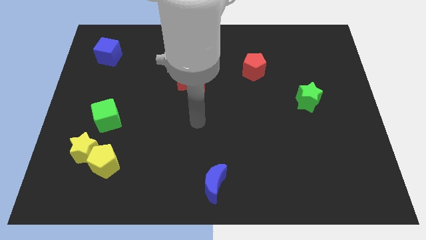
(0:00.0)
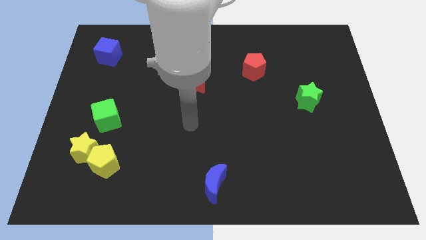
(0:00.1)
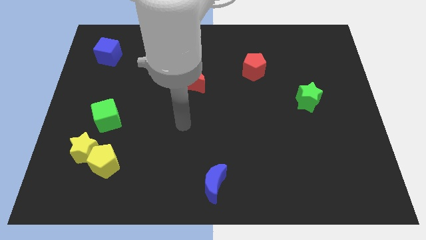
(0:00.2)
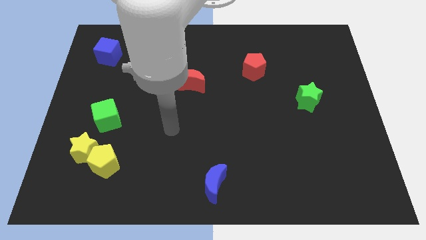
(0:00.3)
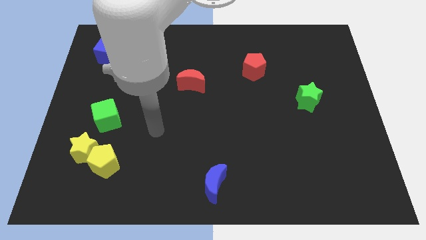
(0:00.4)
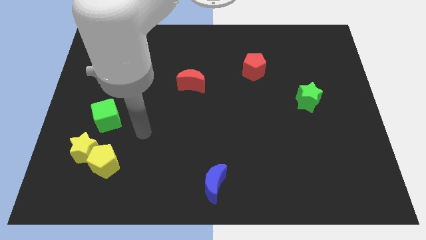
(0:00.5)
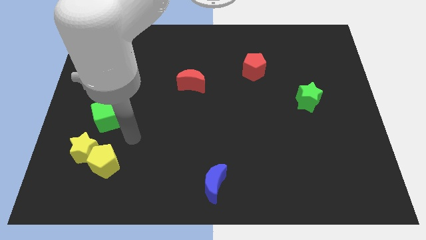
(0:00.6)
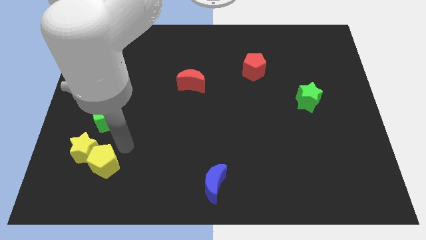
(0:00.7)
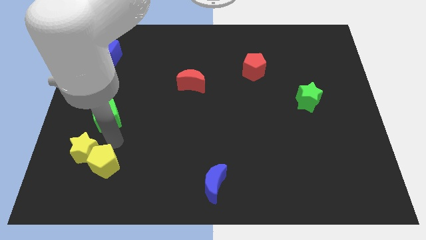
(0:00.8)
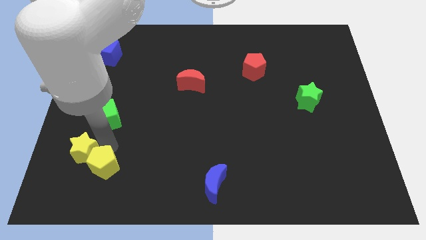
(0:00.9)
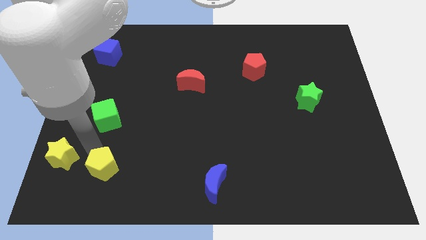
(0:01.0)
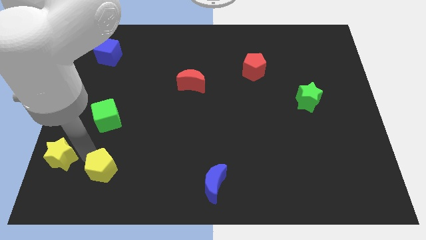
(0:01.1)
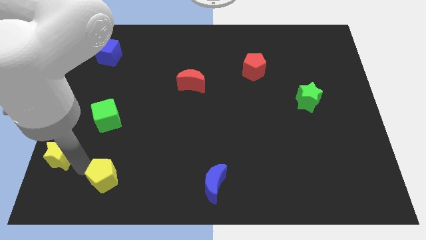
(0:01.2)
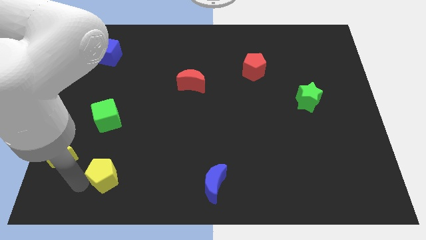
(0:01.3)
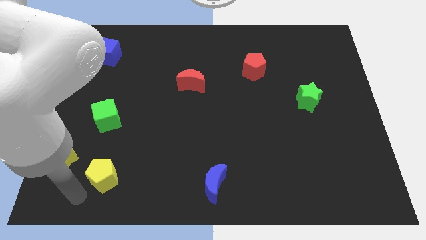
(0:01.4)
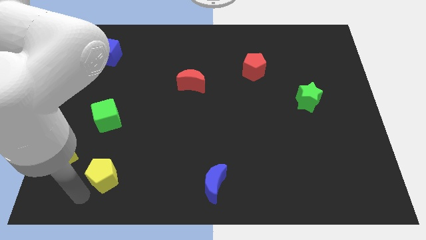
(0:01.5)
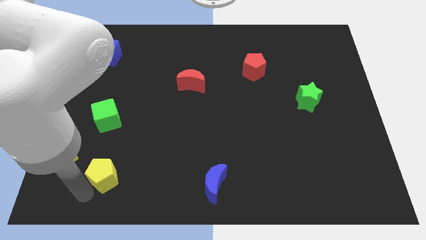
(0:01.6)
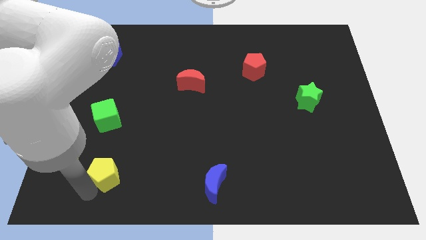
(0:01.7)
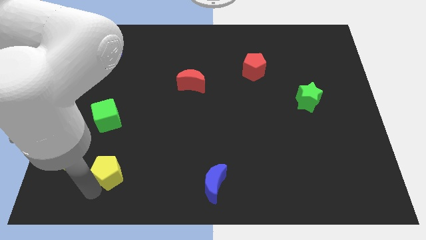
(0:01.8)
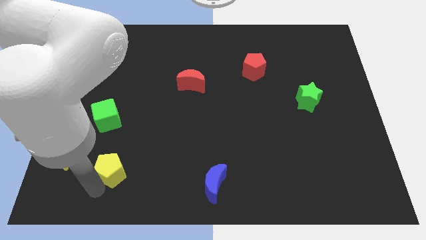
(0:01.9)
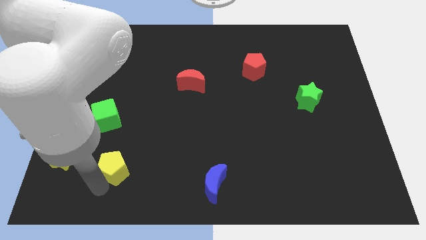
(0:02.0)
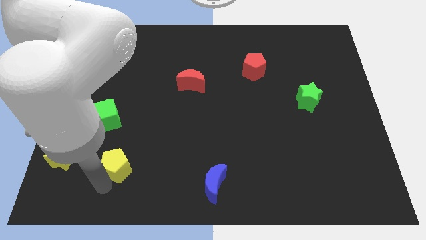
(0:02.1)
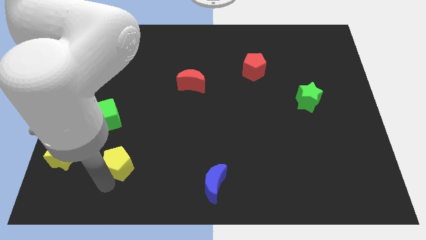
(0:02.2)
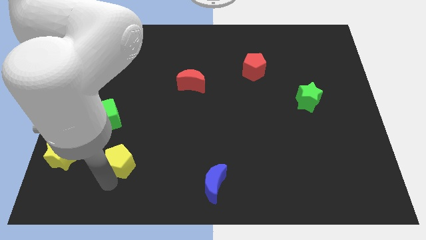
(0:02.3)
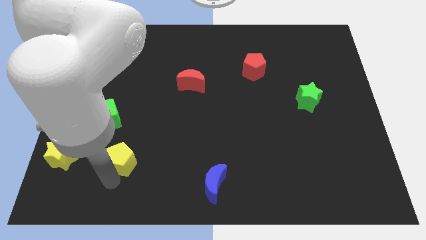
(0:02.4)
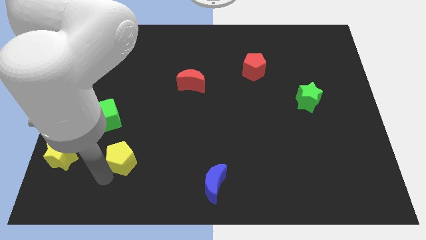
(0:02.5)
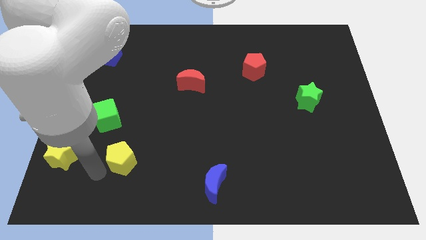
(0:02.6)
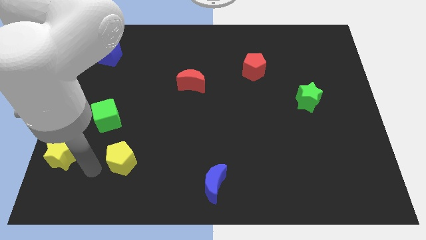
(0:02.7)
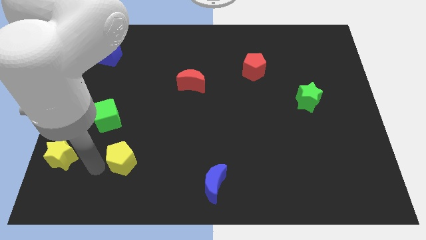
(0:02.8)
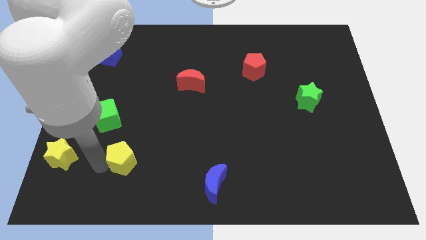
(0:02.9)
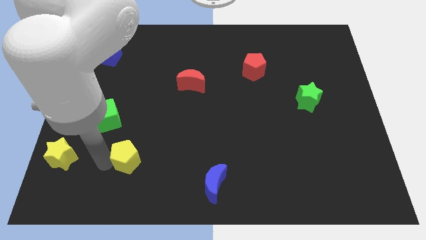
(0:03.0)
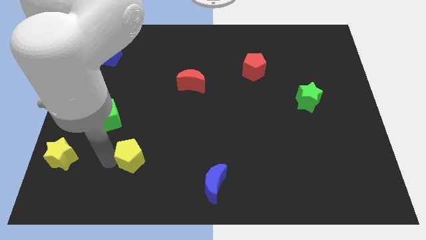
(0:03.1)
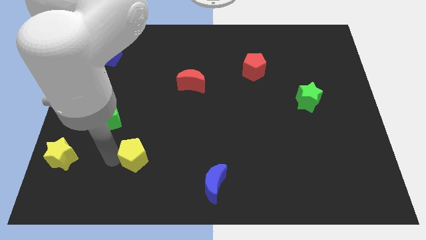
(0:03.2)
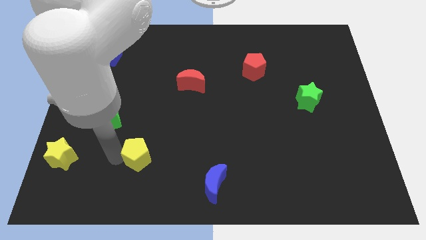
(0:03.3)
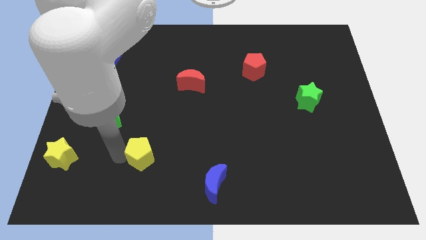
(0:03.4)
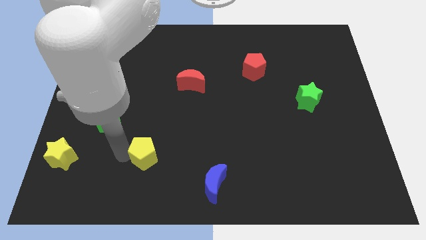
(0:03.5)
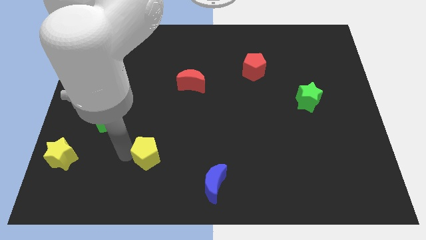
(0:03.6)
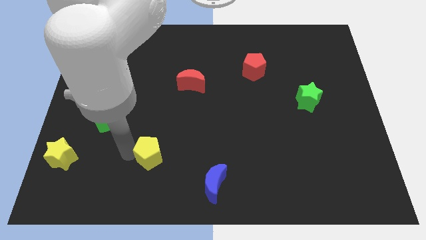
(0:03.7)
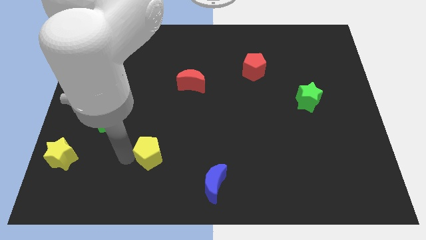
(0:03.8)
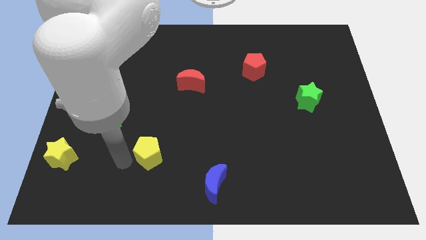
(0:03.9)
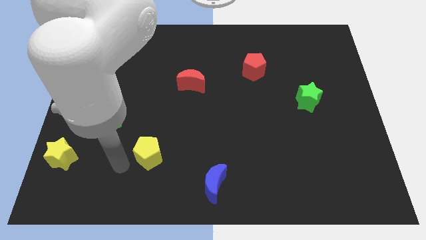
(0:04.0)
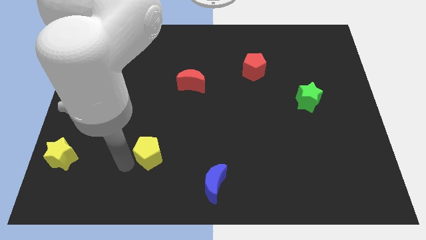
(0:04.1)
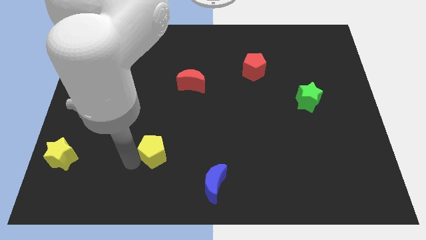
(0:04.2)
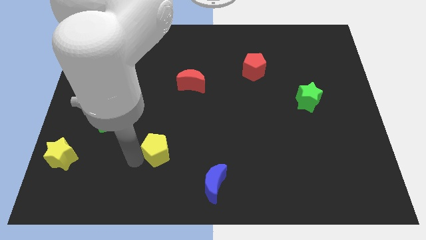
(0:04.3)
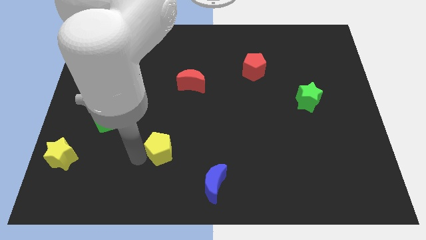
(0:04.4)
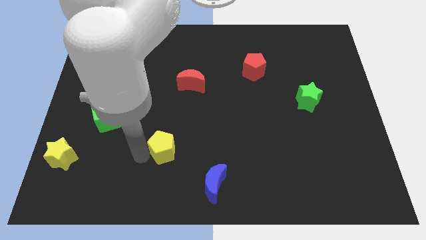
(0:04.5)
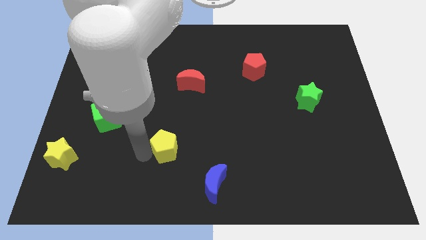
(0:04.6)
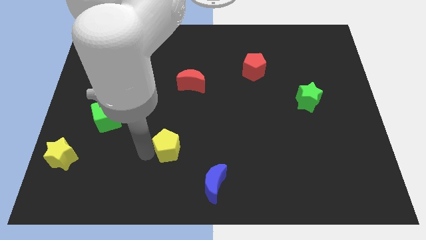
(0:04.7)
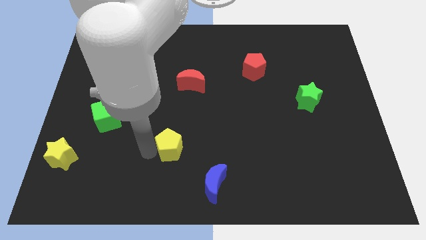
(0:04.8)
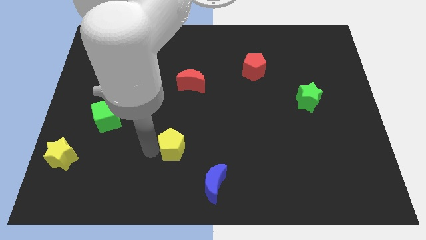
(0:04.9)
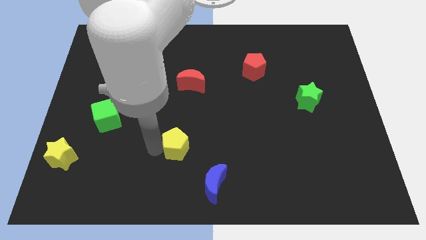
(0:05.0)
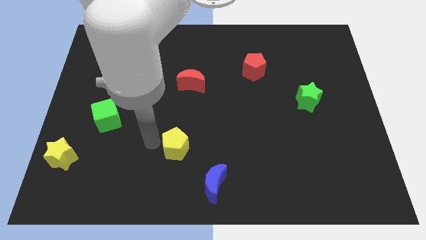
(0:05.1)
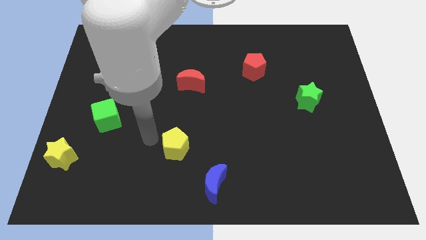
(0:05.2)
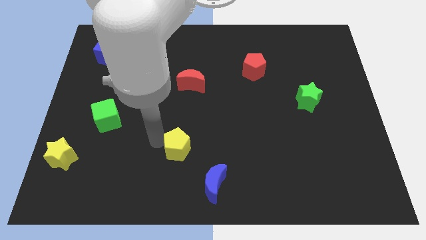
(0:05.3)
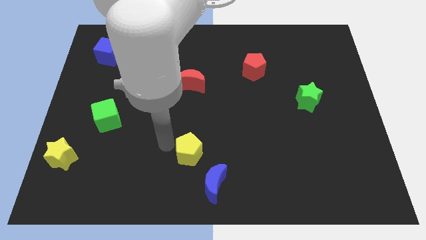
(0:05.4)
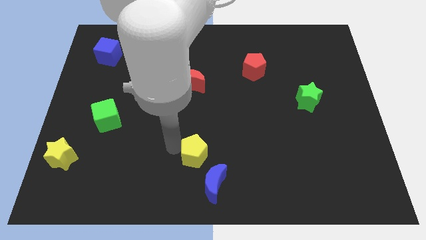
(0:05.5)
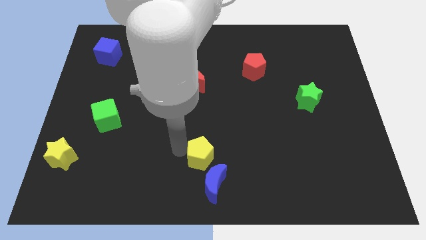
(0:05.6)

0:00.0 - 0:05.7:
slide the yellow pentagon right

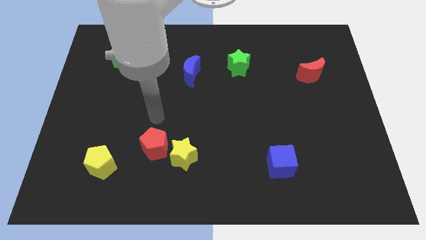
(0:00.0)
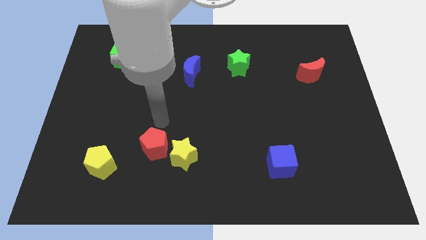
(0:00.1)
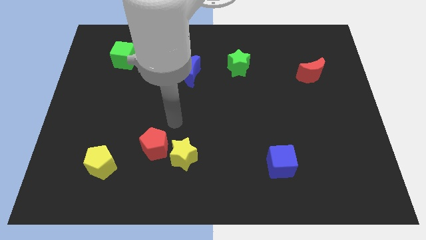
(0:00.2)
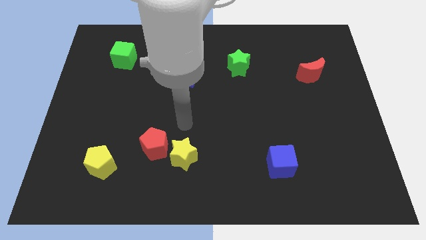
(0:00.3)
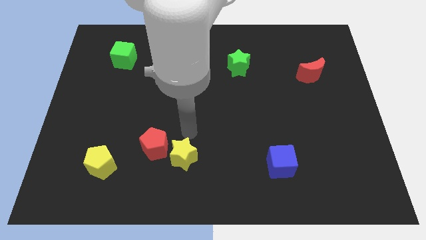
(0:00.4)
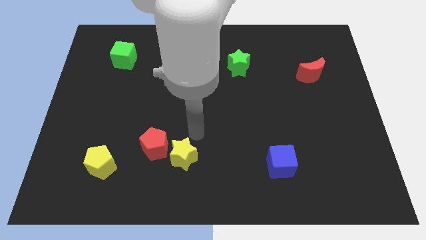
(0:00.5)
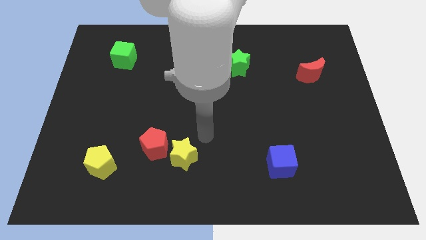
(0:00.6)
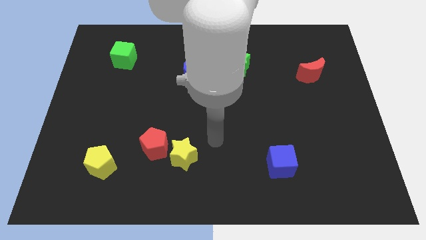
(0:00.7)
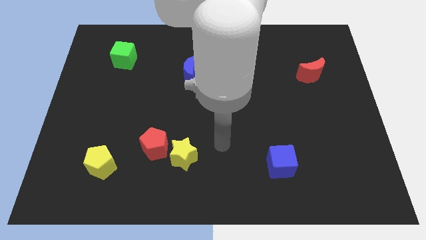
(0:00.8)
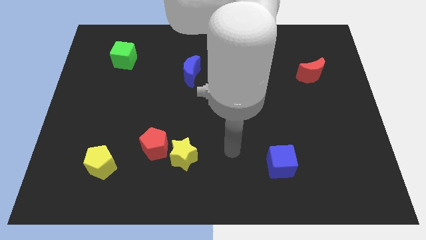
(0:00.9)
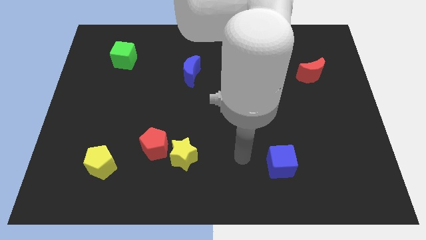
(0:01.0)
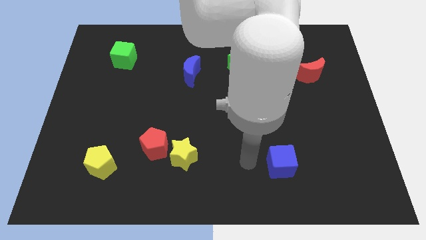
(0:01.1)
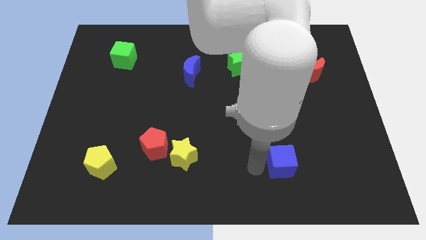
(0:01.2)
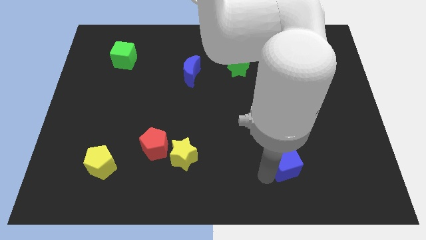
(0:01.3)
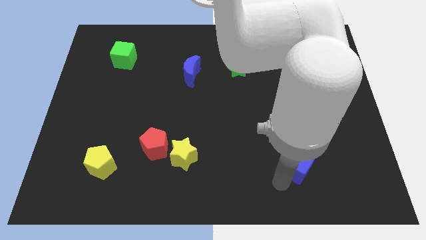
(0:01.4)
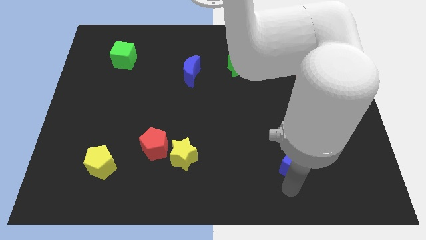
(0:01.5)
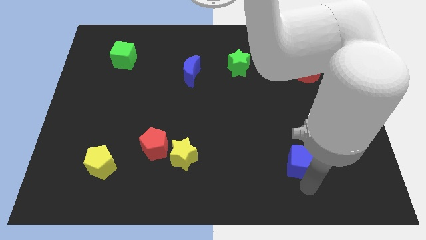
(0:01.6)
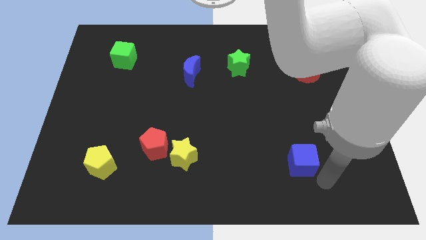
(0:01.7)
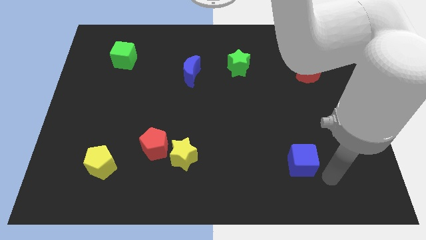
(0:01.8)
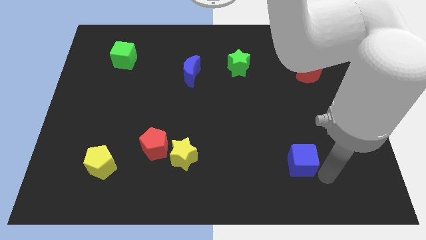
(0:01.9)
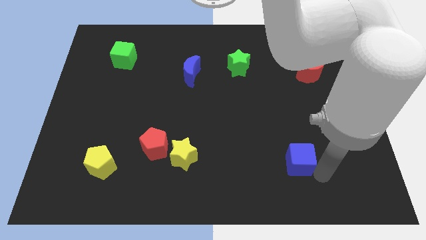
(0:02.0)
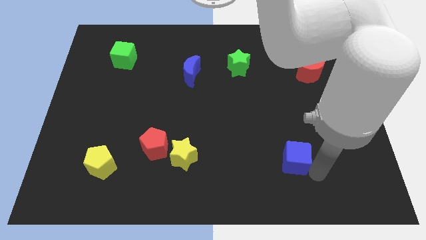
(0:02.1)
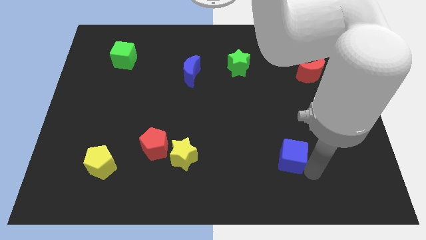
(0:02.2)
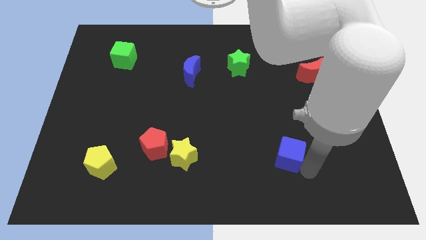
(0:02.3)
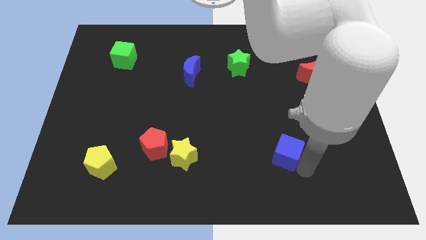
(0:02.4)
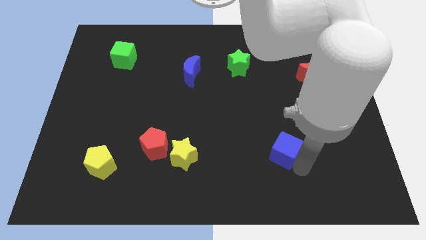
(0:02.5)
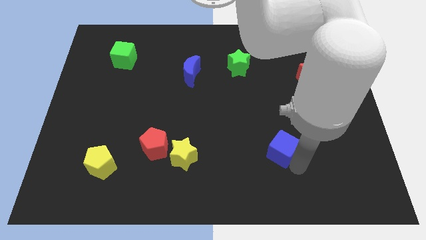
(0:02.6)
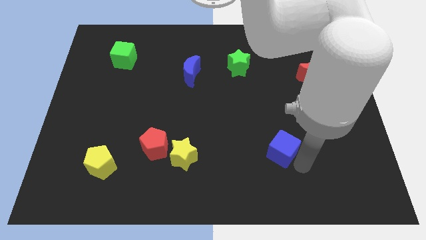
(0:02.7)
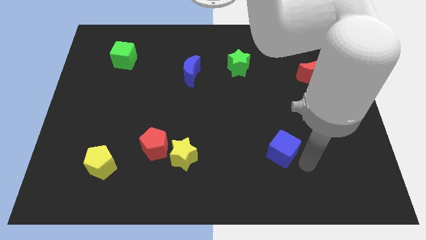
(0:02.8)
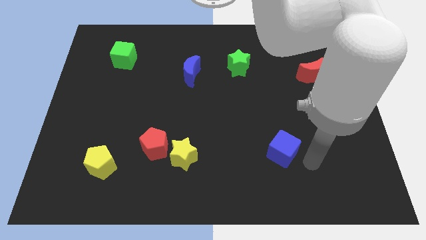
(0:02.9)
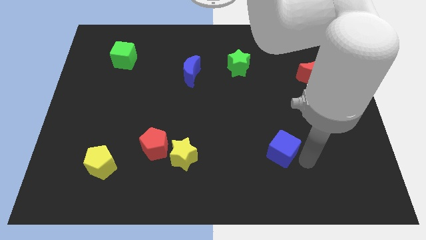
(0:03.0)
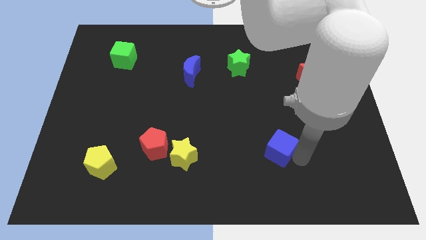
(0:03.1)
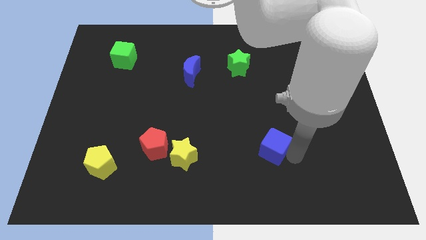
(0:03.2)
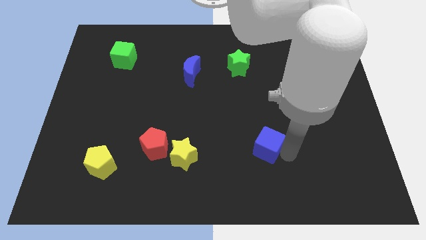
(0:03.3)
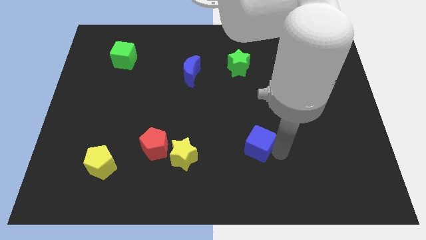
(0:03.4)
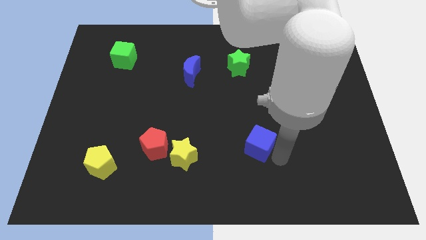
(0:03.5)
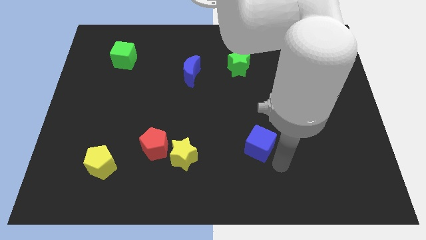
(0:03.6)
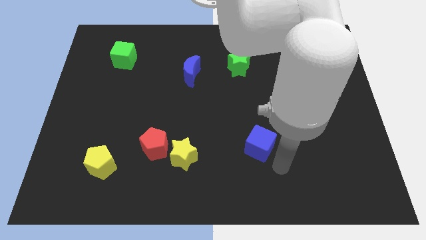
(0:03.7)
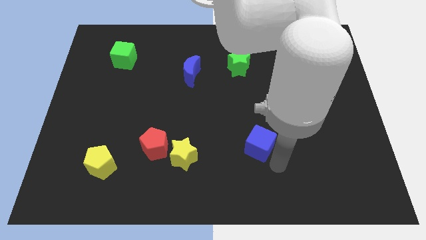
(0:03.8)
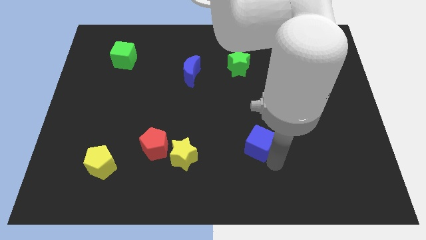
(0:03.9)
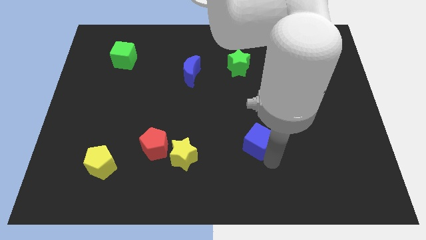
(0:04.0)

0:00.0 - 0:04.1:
push the blue cube slightly upwards and left diagonally
